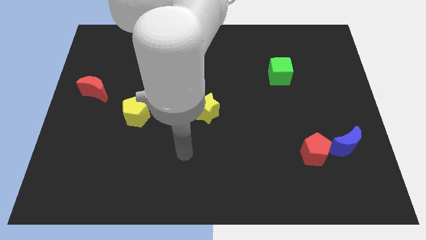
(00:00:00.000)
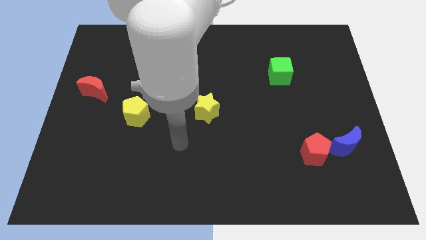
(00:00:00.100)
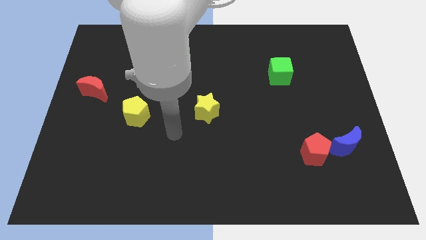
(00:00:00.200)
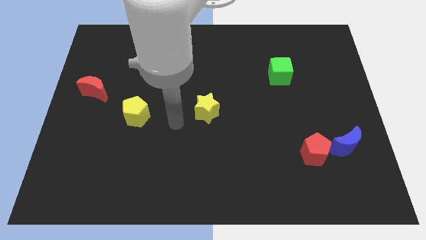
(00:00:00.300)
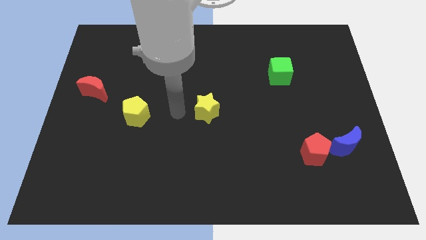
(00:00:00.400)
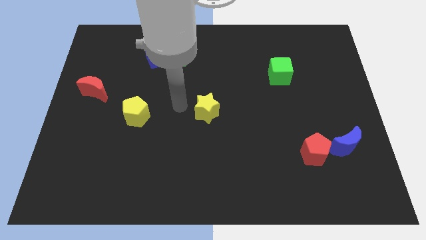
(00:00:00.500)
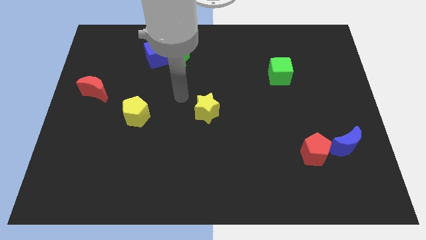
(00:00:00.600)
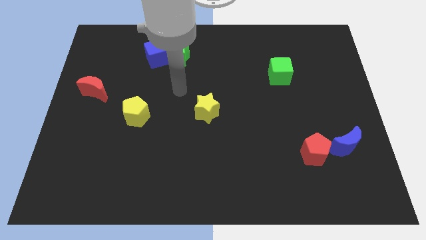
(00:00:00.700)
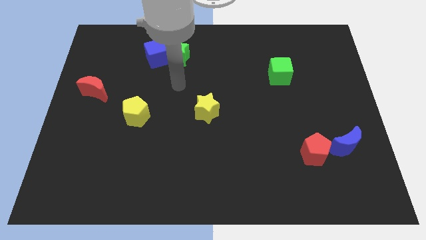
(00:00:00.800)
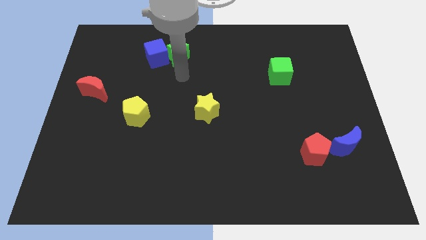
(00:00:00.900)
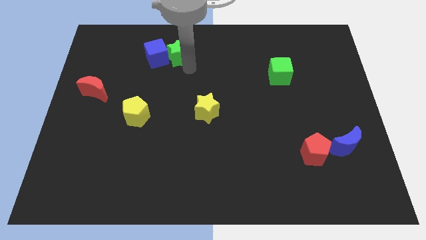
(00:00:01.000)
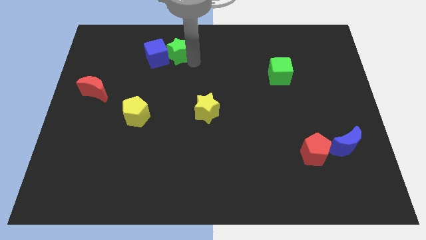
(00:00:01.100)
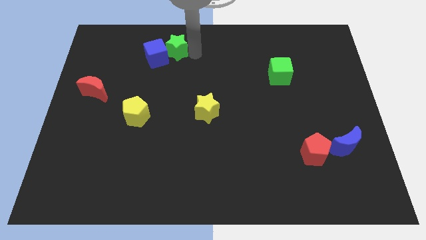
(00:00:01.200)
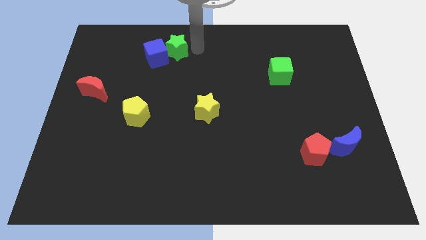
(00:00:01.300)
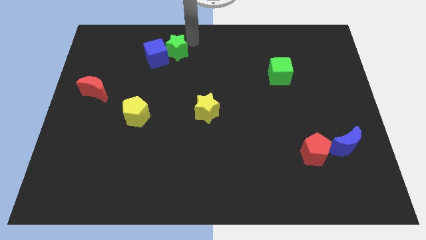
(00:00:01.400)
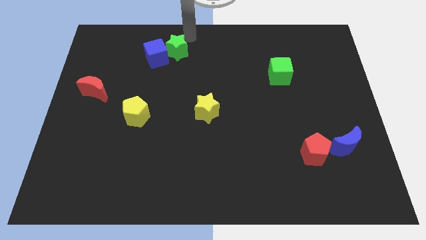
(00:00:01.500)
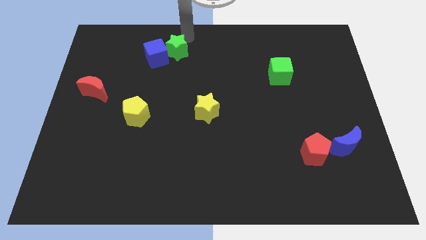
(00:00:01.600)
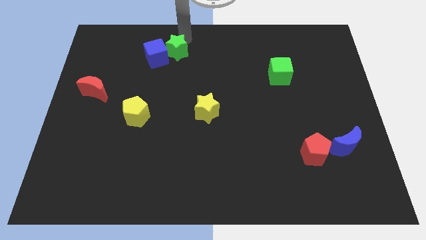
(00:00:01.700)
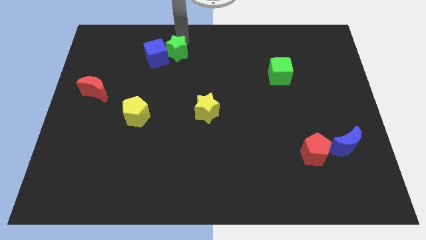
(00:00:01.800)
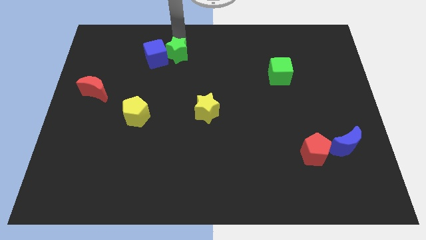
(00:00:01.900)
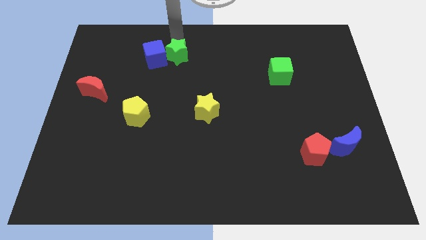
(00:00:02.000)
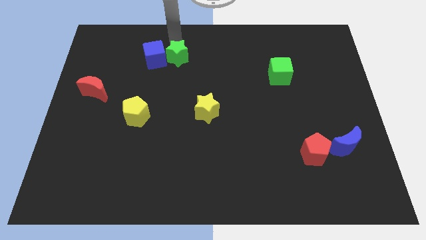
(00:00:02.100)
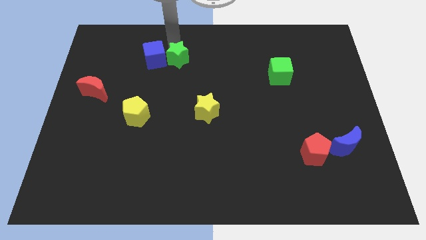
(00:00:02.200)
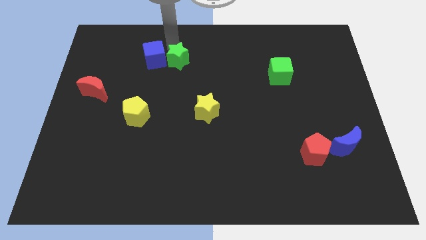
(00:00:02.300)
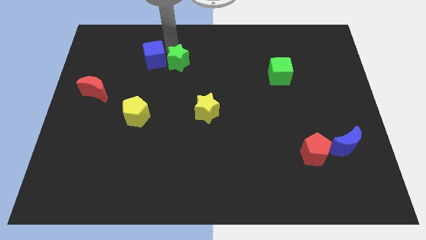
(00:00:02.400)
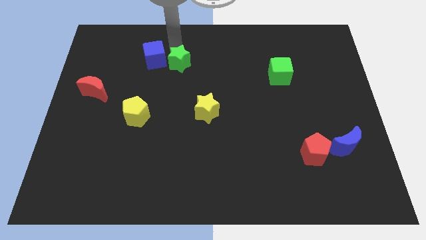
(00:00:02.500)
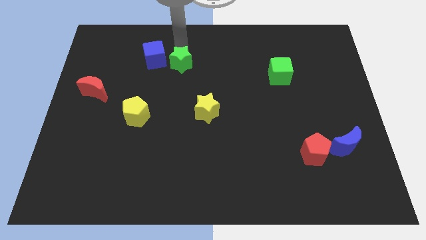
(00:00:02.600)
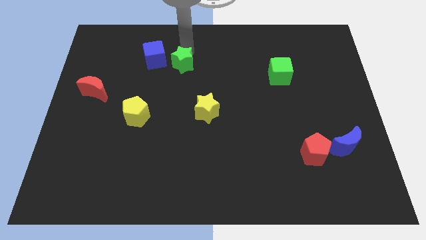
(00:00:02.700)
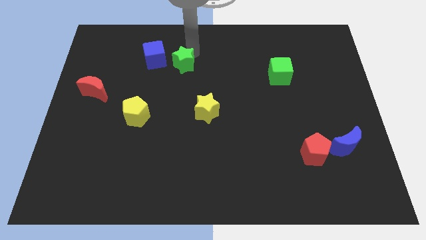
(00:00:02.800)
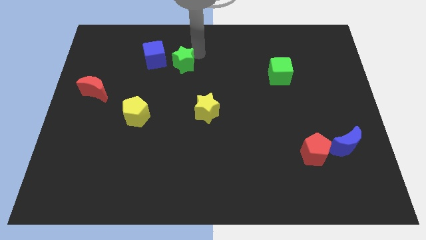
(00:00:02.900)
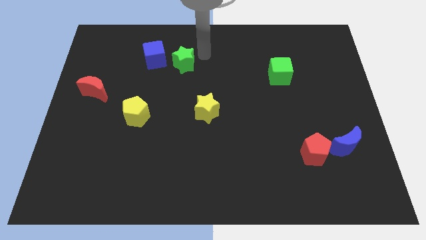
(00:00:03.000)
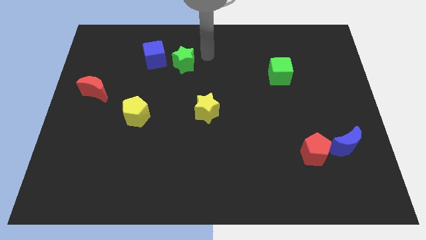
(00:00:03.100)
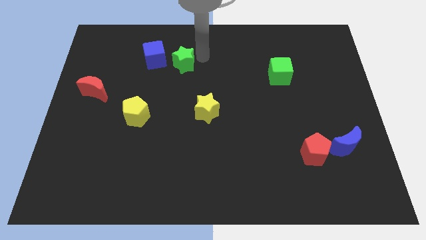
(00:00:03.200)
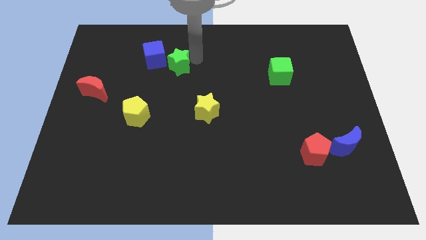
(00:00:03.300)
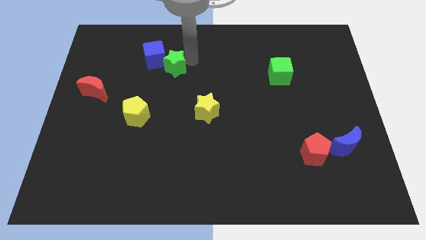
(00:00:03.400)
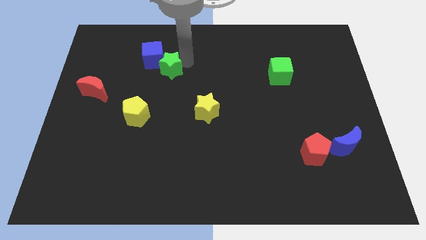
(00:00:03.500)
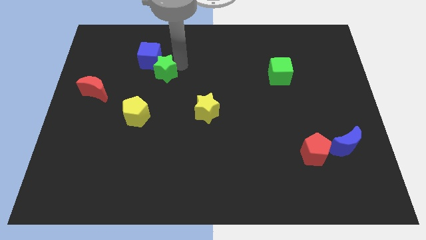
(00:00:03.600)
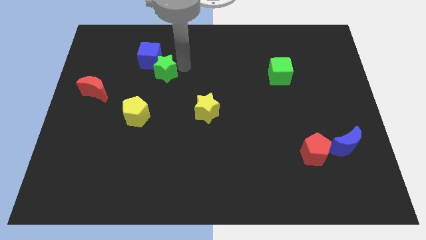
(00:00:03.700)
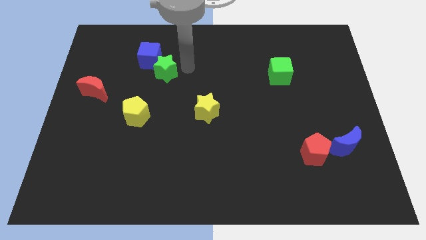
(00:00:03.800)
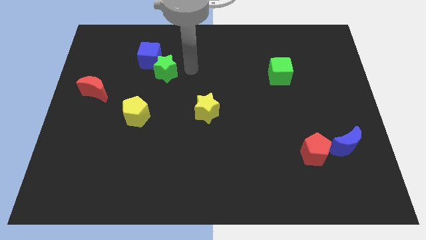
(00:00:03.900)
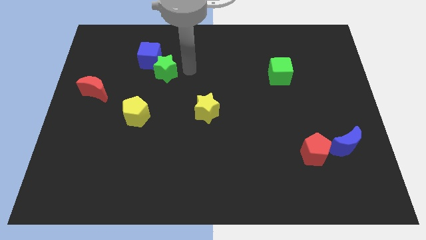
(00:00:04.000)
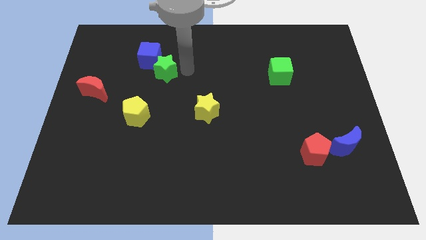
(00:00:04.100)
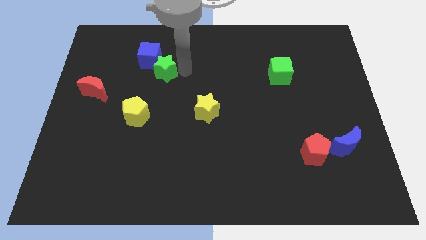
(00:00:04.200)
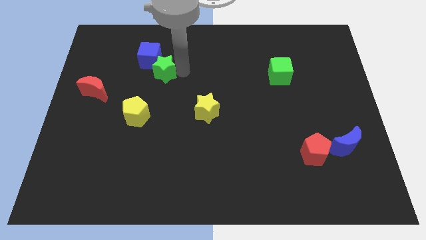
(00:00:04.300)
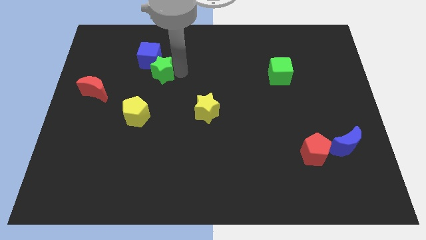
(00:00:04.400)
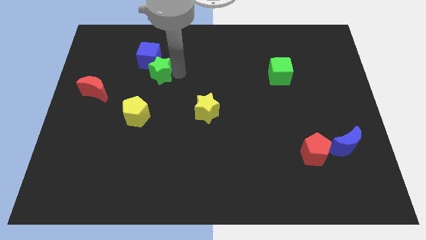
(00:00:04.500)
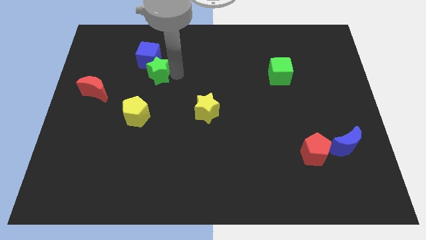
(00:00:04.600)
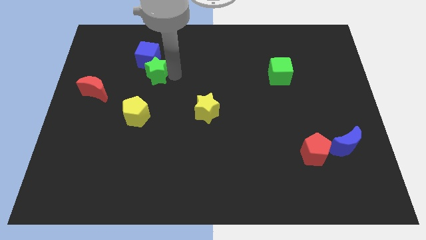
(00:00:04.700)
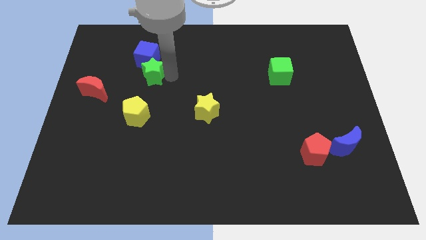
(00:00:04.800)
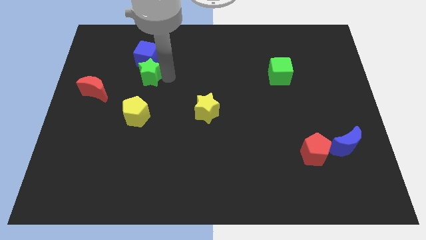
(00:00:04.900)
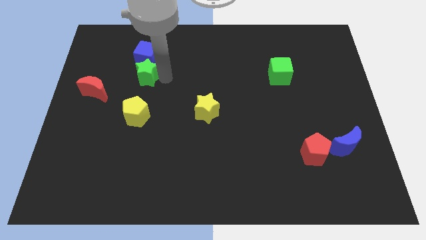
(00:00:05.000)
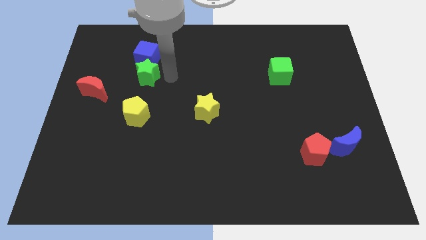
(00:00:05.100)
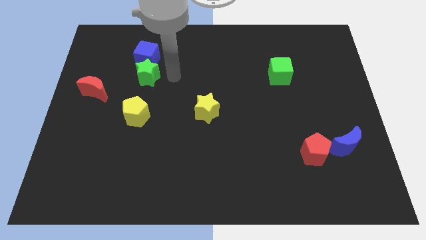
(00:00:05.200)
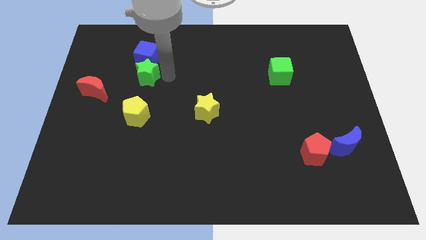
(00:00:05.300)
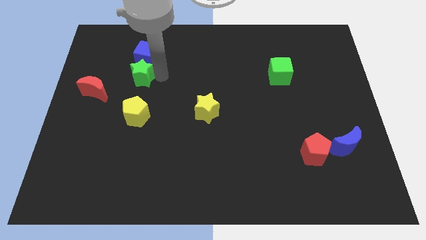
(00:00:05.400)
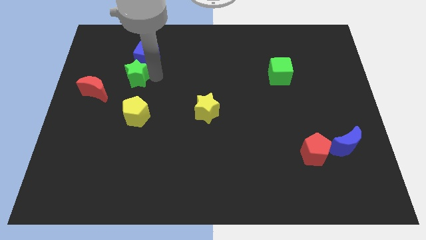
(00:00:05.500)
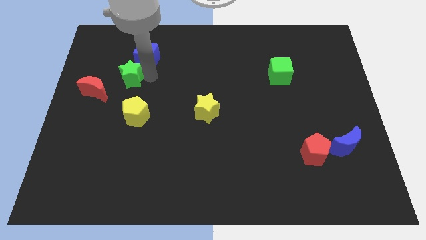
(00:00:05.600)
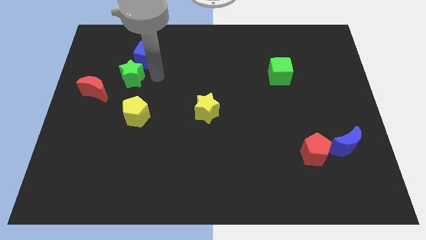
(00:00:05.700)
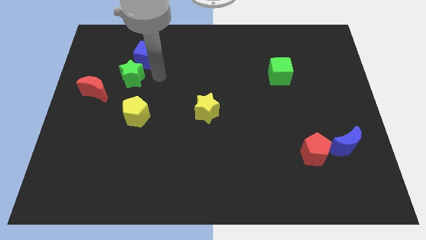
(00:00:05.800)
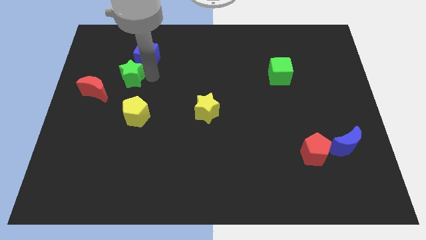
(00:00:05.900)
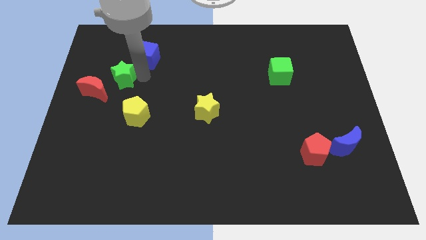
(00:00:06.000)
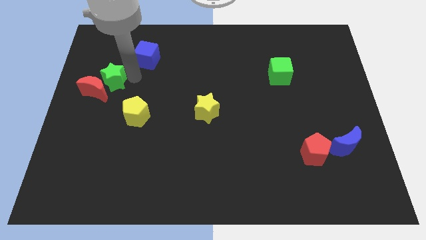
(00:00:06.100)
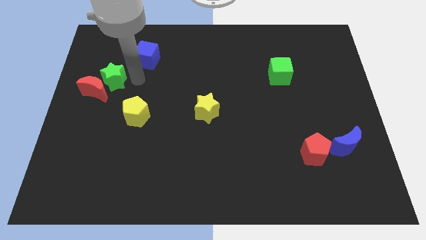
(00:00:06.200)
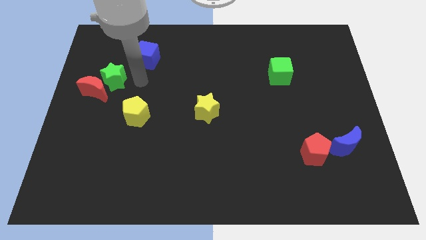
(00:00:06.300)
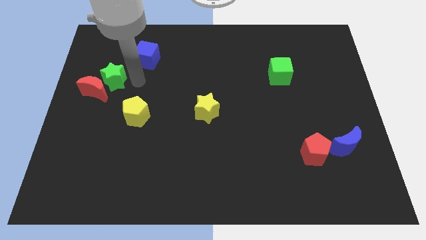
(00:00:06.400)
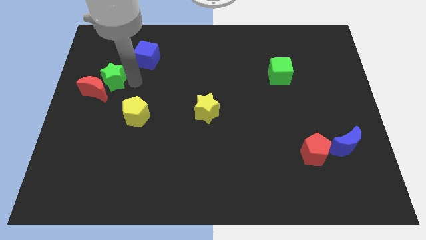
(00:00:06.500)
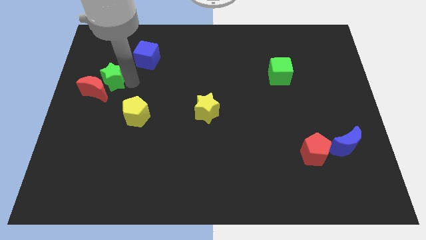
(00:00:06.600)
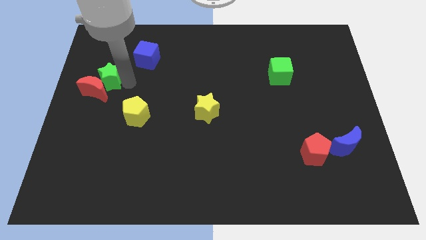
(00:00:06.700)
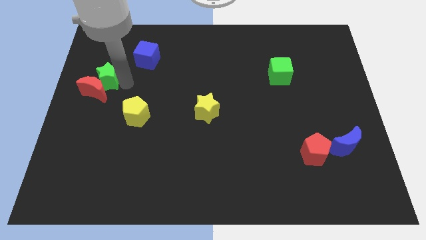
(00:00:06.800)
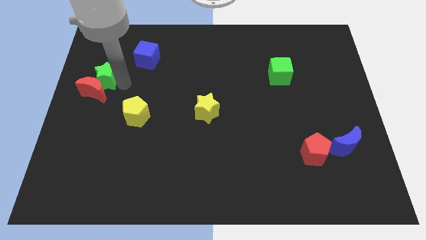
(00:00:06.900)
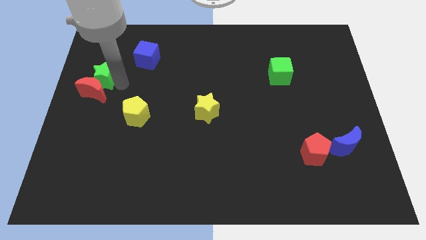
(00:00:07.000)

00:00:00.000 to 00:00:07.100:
move the green star to the center left
